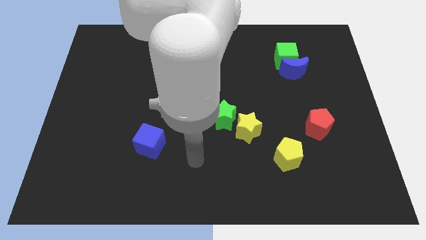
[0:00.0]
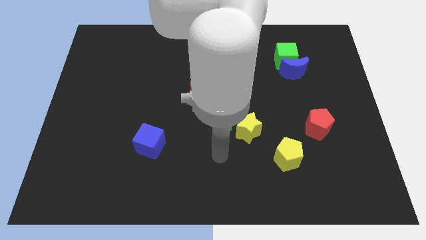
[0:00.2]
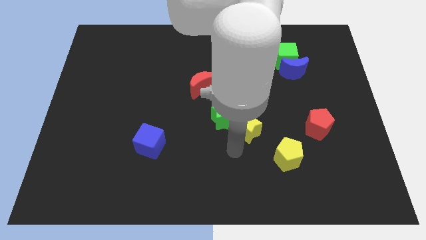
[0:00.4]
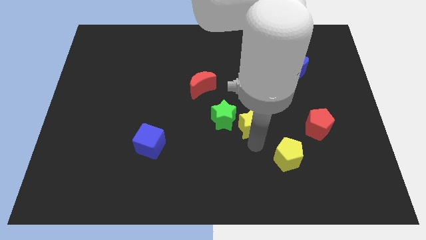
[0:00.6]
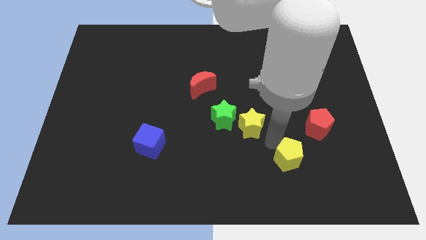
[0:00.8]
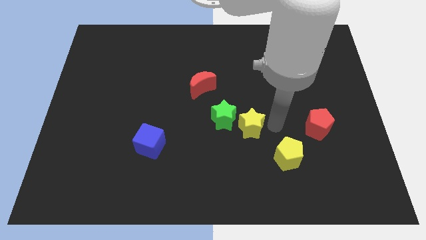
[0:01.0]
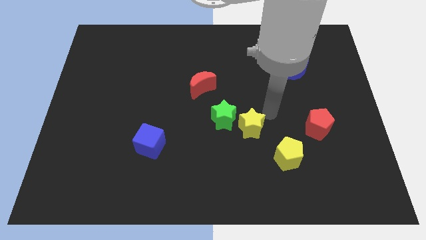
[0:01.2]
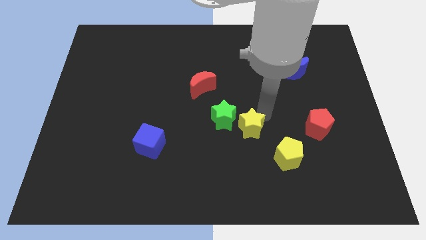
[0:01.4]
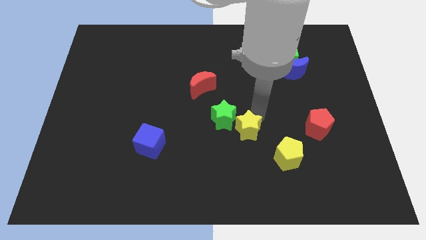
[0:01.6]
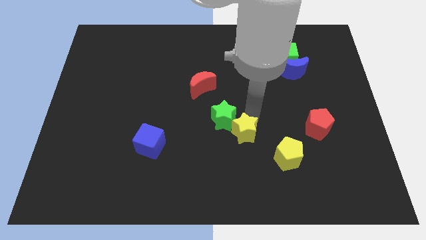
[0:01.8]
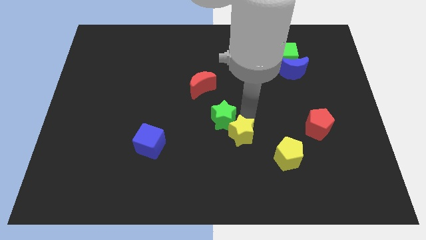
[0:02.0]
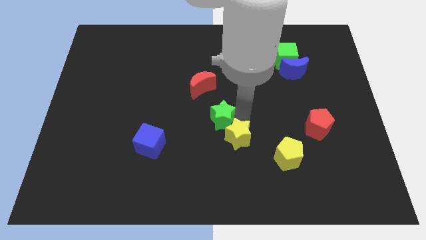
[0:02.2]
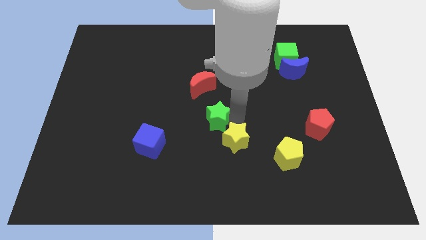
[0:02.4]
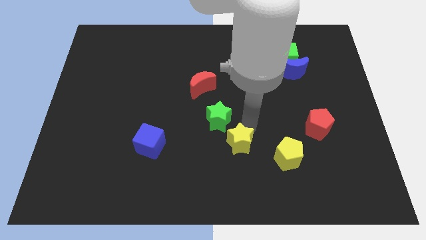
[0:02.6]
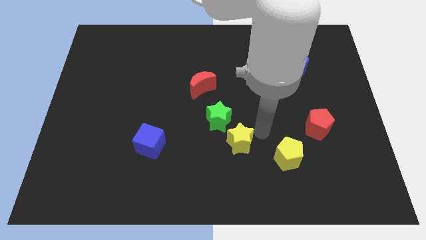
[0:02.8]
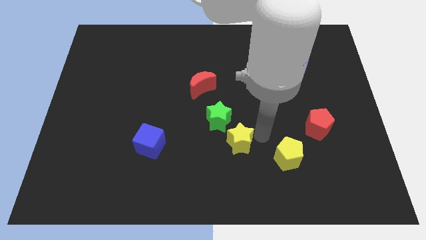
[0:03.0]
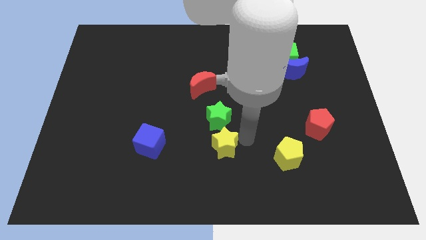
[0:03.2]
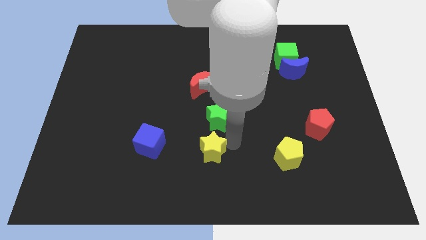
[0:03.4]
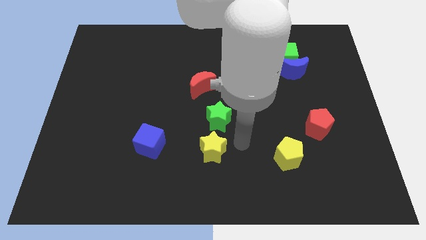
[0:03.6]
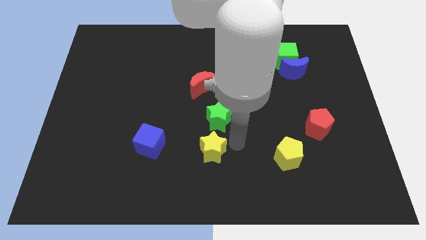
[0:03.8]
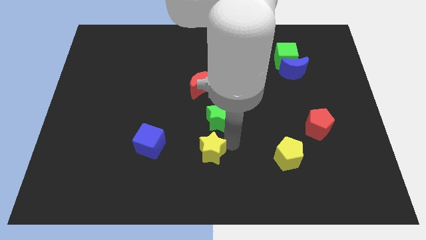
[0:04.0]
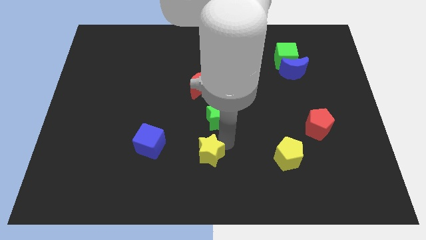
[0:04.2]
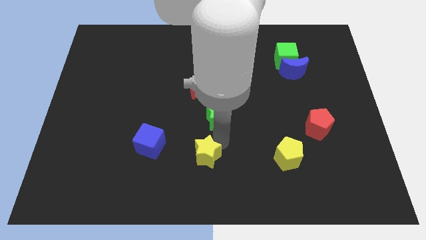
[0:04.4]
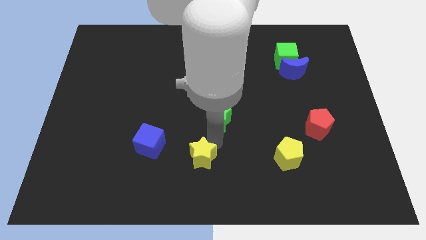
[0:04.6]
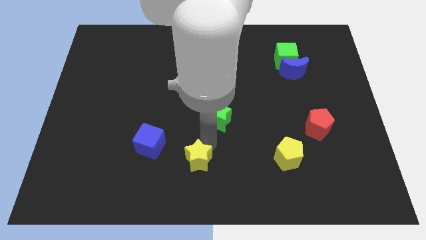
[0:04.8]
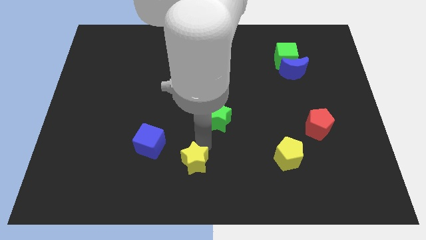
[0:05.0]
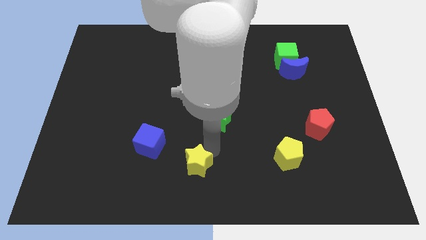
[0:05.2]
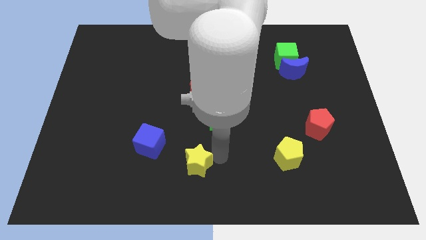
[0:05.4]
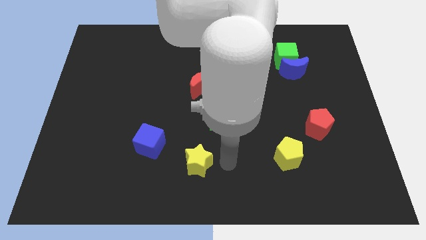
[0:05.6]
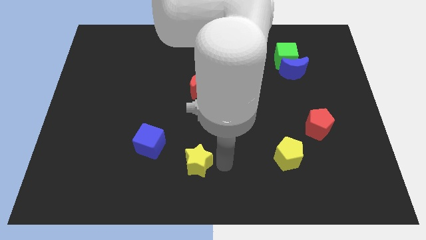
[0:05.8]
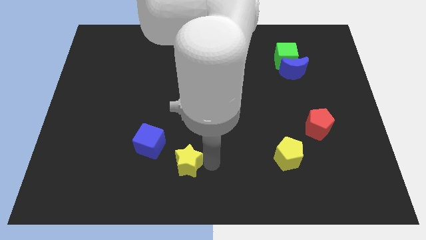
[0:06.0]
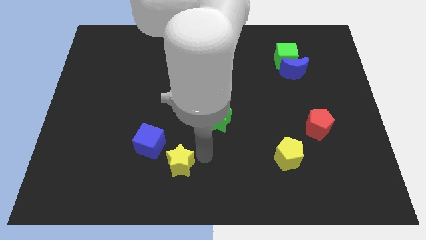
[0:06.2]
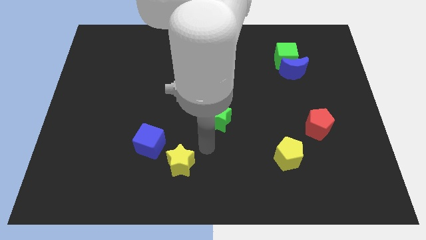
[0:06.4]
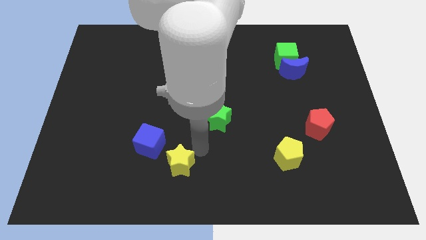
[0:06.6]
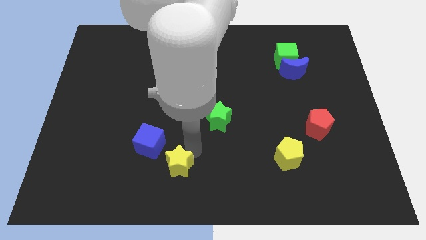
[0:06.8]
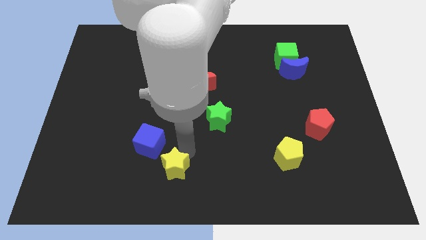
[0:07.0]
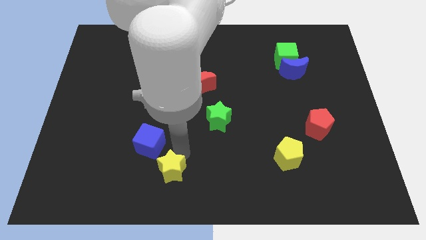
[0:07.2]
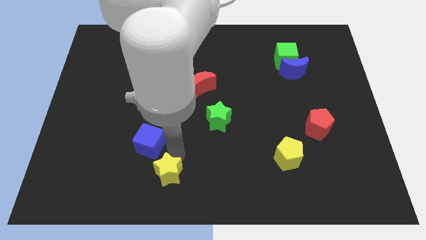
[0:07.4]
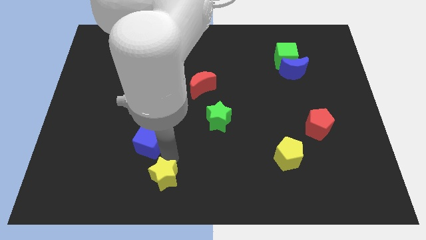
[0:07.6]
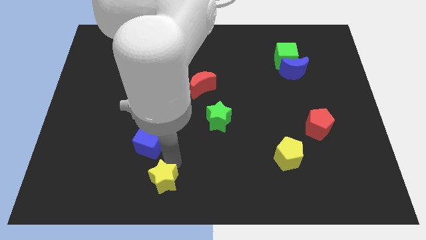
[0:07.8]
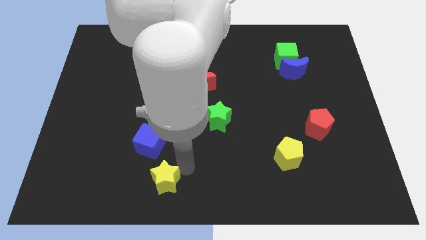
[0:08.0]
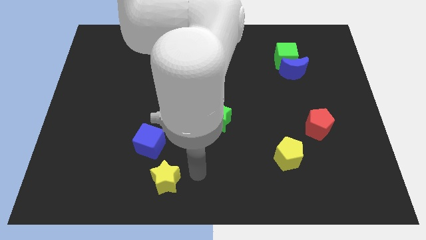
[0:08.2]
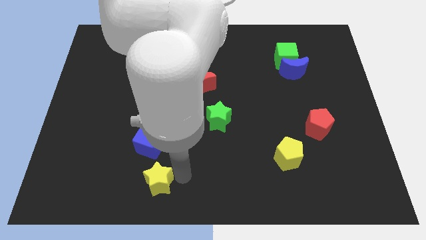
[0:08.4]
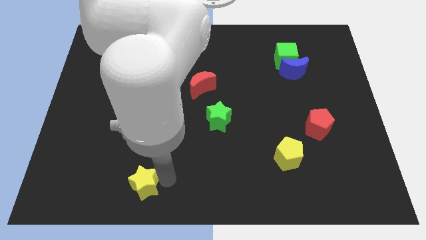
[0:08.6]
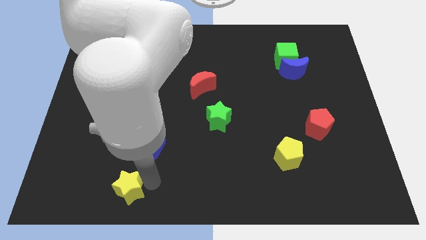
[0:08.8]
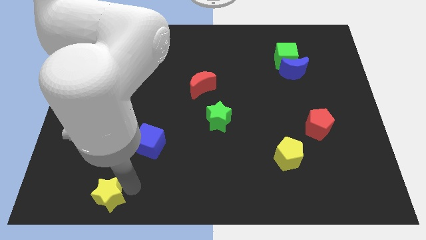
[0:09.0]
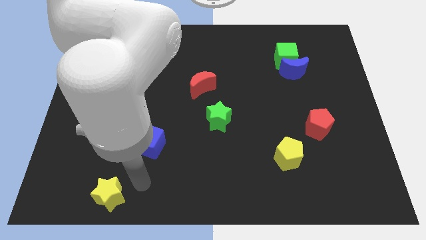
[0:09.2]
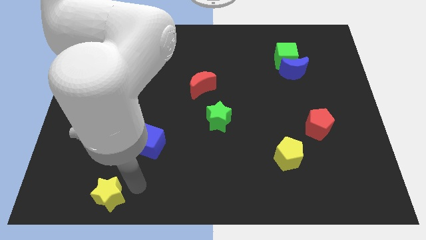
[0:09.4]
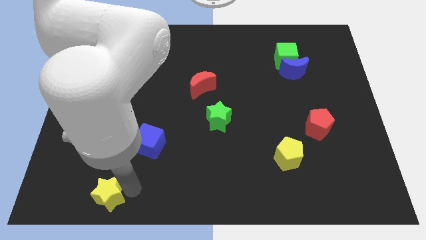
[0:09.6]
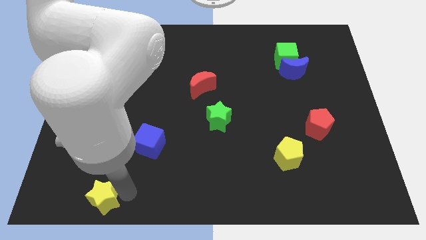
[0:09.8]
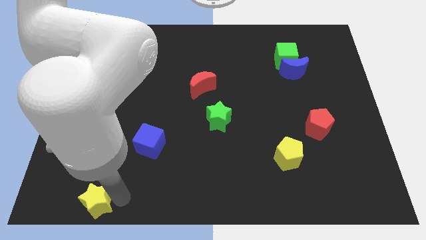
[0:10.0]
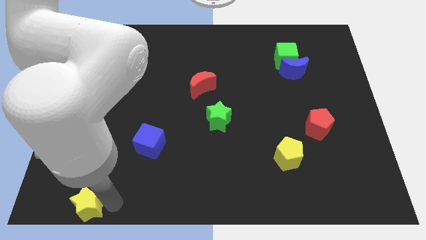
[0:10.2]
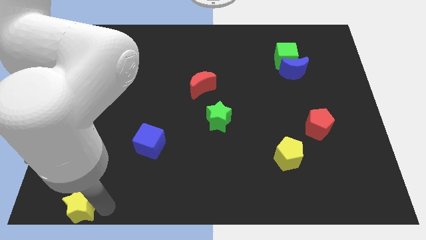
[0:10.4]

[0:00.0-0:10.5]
move the yellow star to the lower left corner

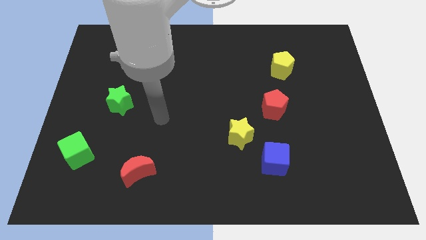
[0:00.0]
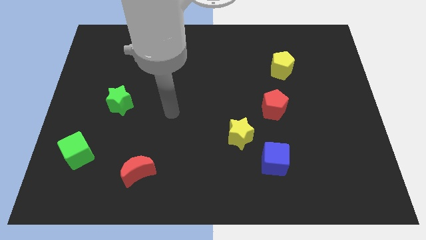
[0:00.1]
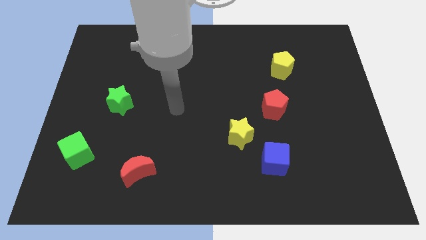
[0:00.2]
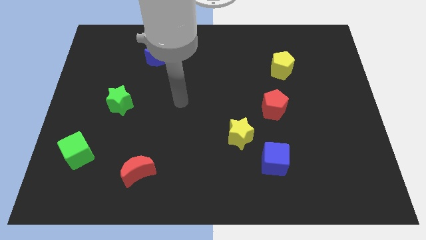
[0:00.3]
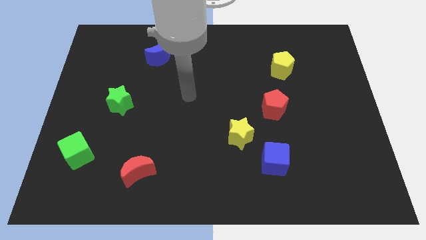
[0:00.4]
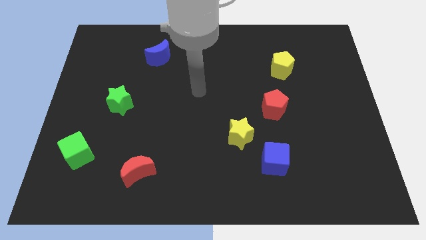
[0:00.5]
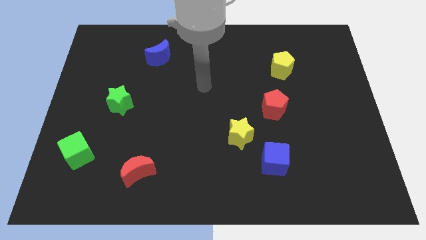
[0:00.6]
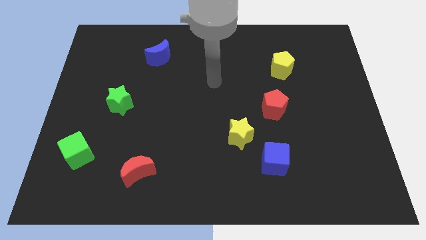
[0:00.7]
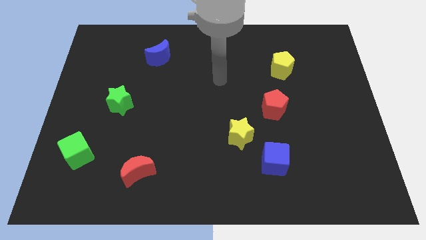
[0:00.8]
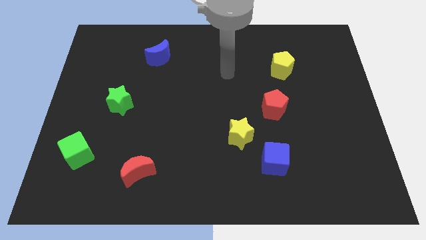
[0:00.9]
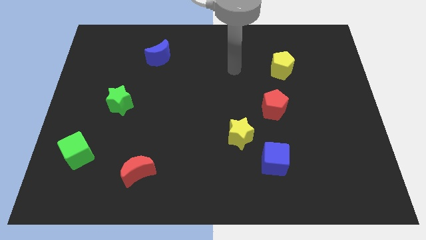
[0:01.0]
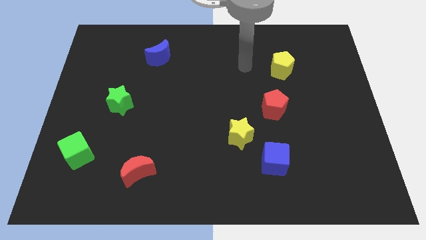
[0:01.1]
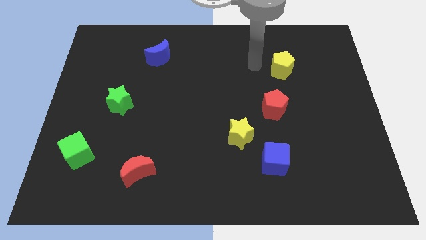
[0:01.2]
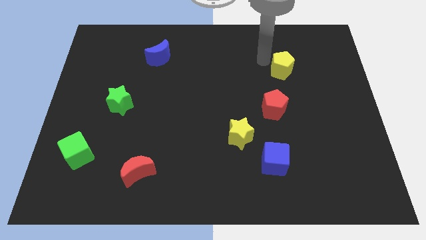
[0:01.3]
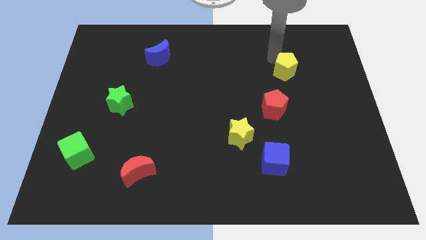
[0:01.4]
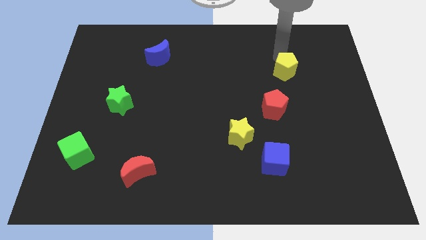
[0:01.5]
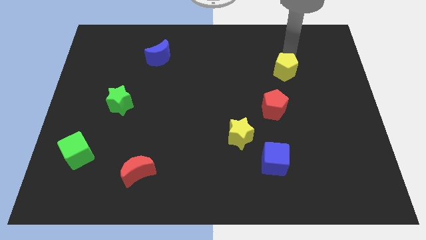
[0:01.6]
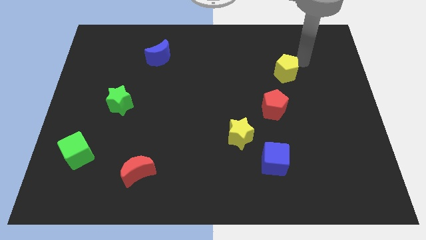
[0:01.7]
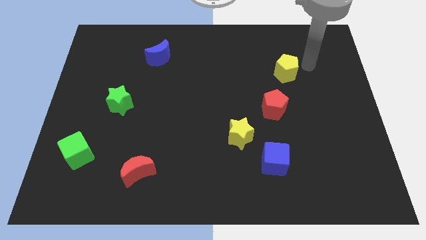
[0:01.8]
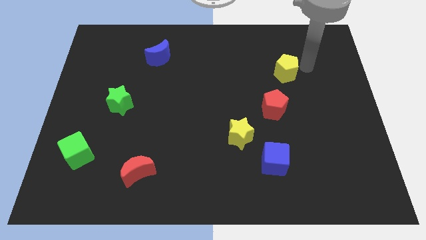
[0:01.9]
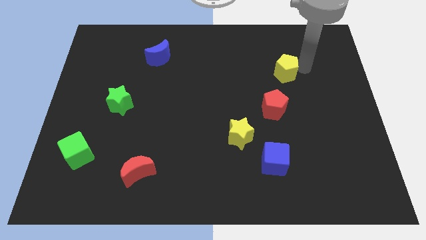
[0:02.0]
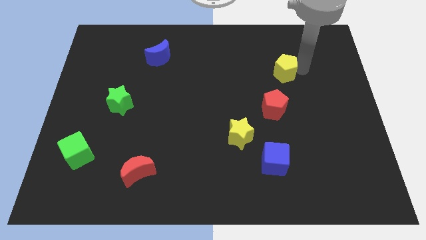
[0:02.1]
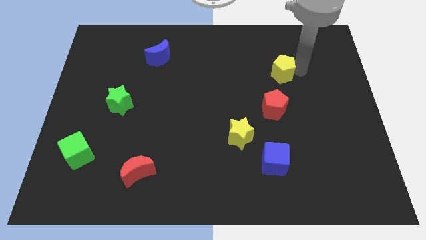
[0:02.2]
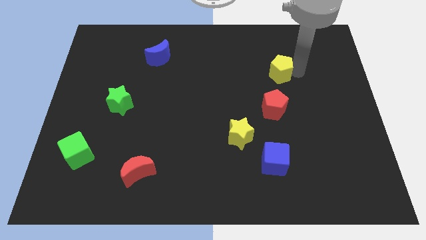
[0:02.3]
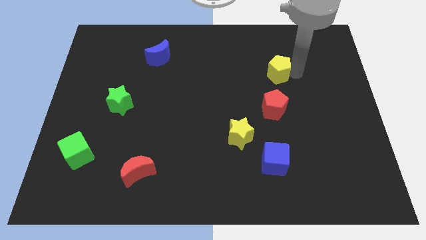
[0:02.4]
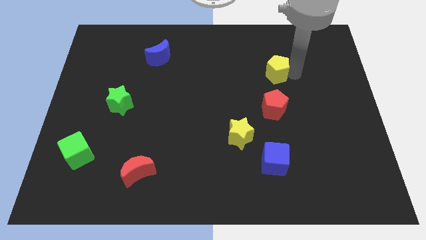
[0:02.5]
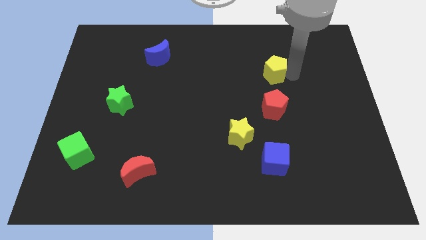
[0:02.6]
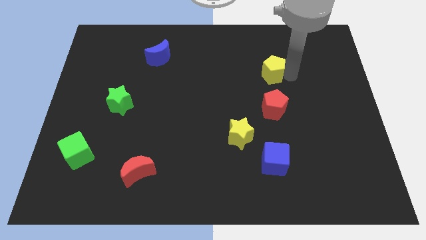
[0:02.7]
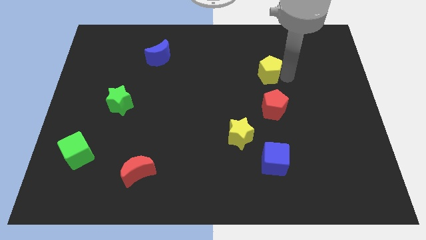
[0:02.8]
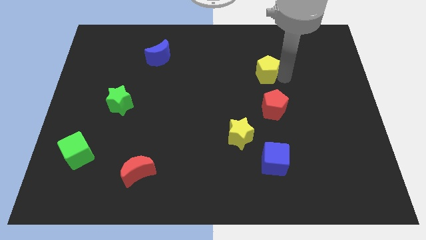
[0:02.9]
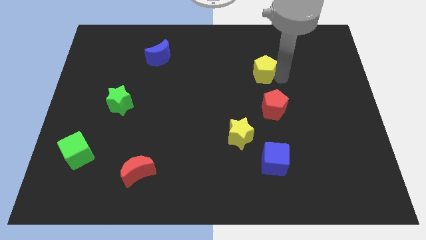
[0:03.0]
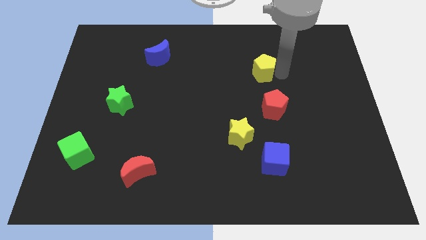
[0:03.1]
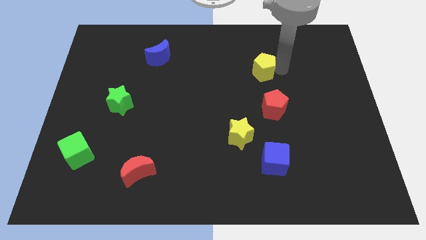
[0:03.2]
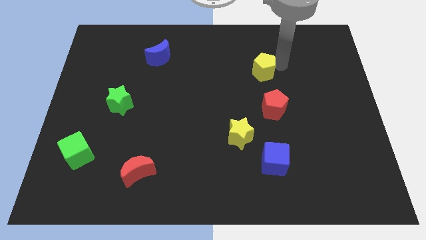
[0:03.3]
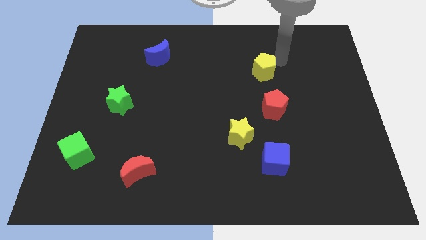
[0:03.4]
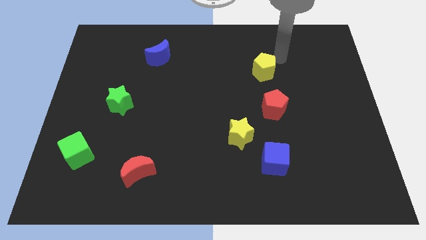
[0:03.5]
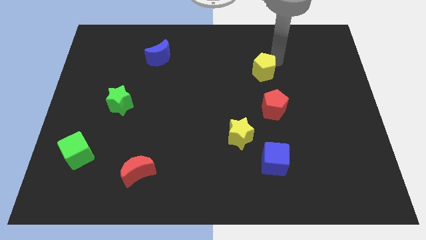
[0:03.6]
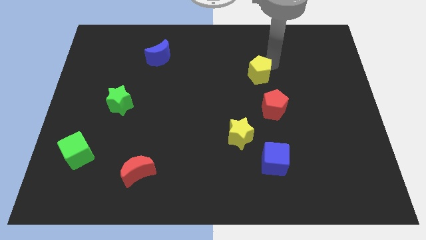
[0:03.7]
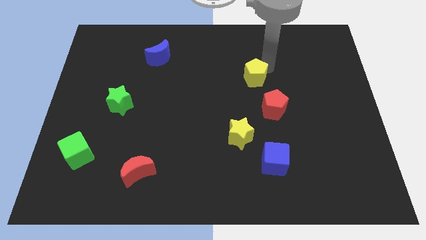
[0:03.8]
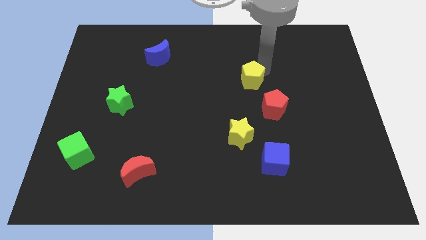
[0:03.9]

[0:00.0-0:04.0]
push the yellow pentagon to the center of the board
